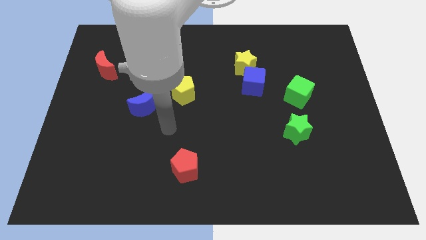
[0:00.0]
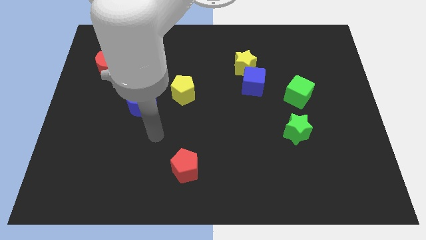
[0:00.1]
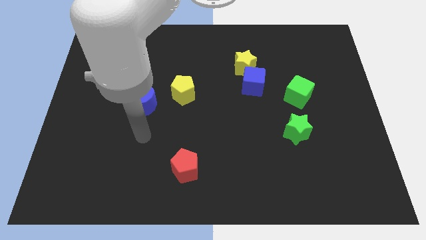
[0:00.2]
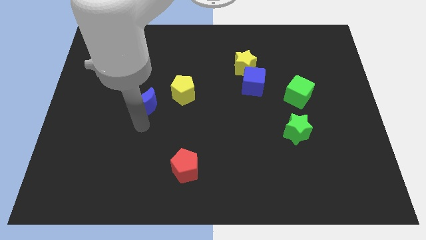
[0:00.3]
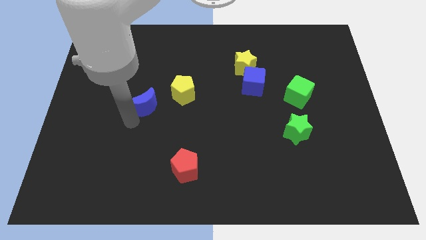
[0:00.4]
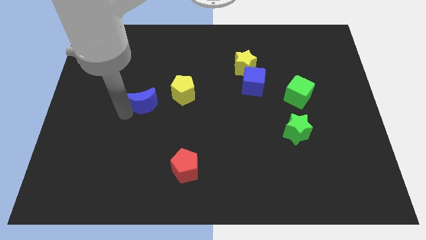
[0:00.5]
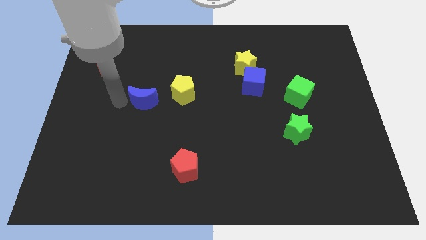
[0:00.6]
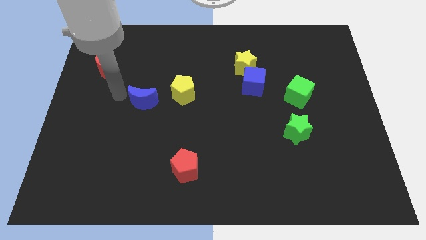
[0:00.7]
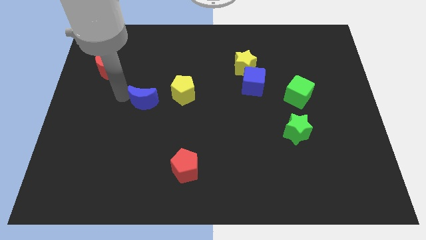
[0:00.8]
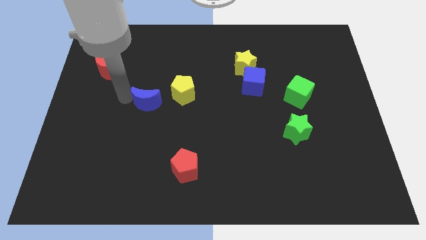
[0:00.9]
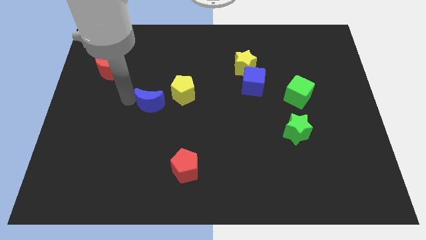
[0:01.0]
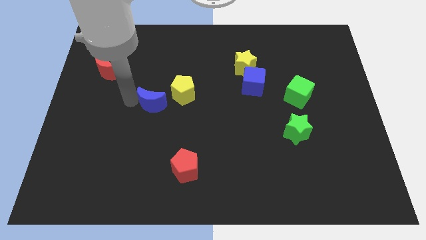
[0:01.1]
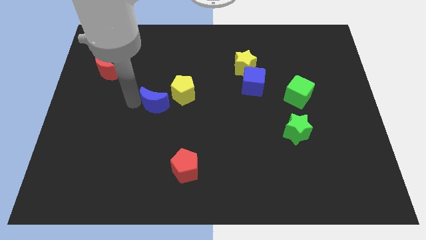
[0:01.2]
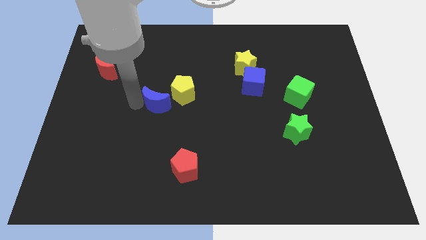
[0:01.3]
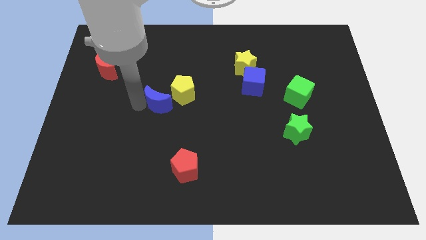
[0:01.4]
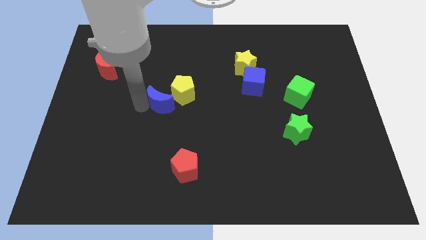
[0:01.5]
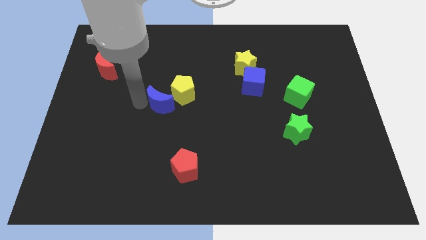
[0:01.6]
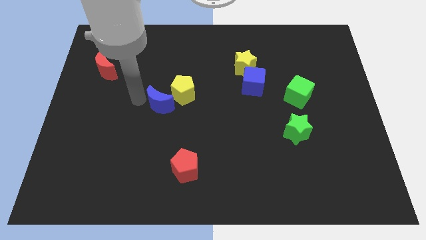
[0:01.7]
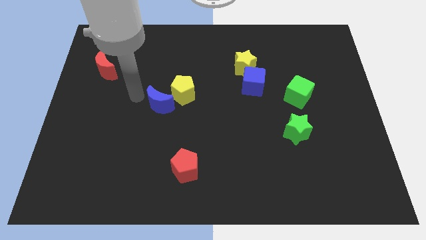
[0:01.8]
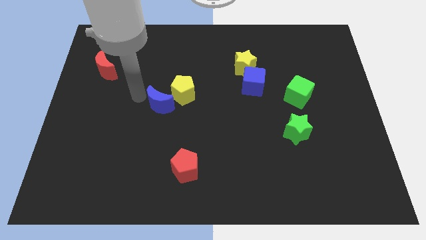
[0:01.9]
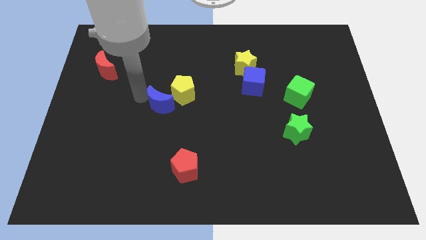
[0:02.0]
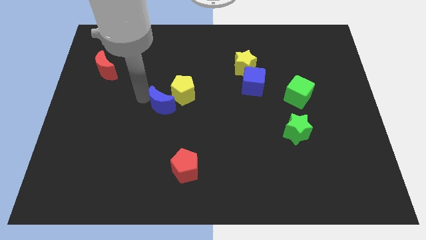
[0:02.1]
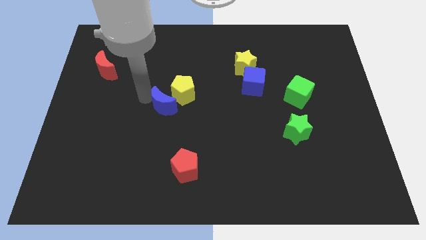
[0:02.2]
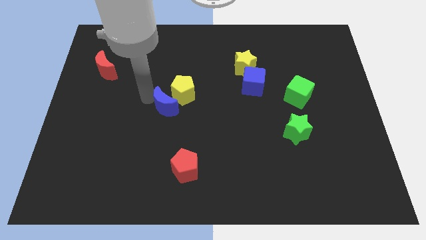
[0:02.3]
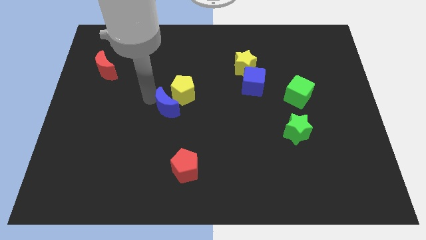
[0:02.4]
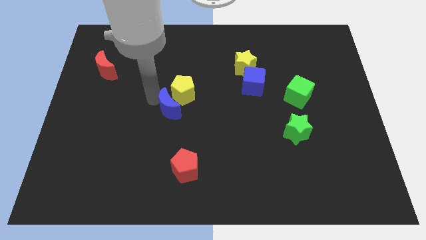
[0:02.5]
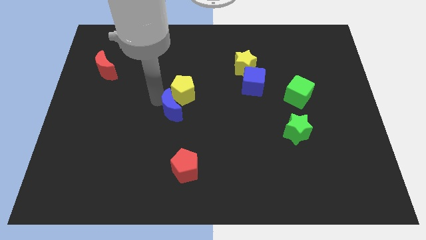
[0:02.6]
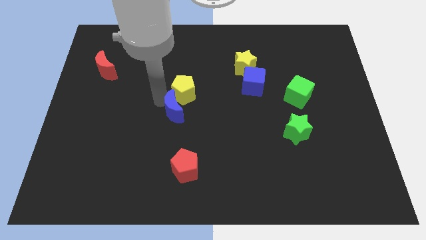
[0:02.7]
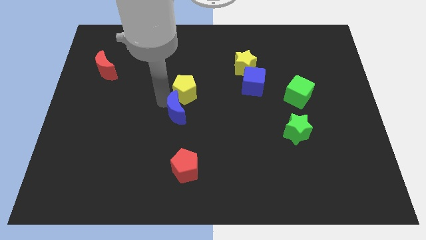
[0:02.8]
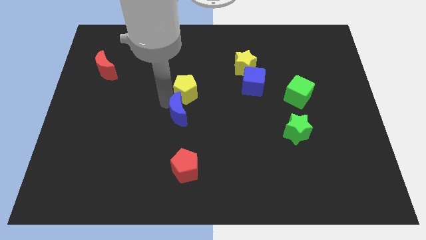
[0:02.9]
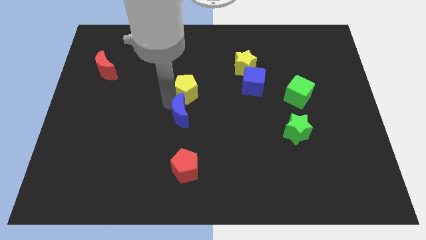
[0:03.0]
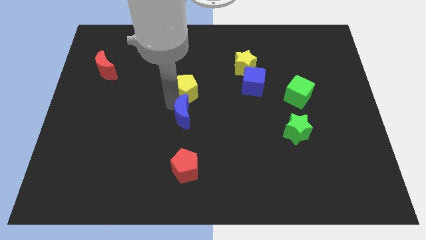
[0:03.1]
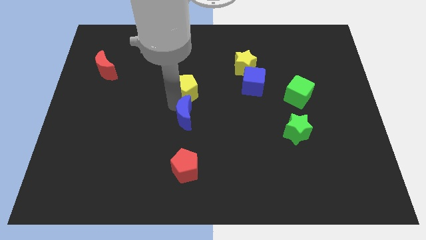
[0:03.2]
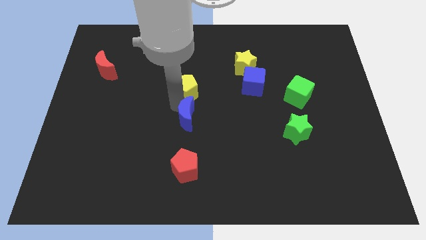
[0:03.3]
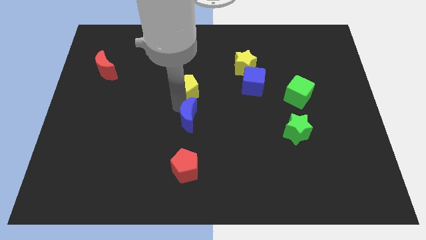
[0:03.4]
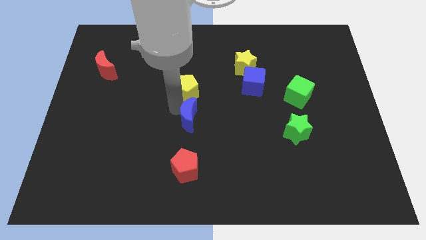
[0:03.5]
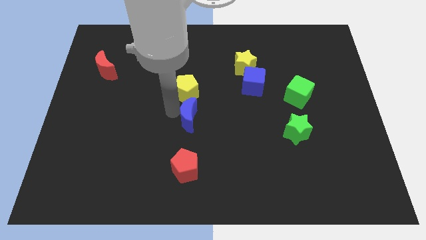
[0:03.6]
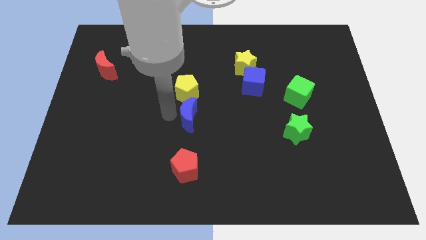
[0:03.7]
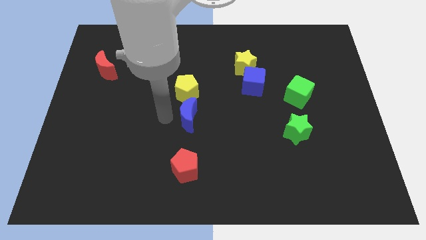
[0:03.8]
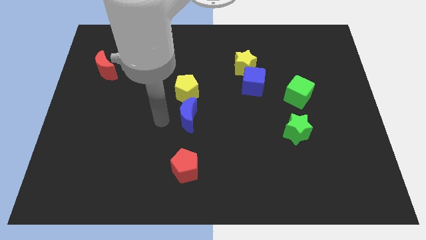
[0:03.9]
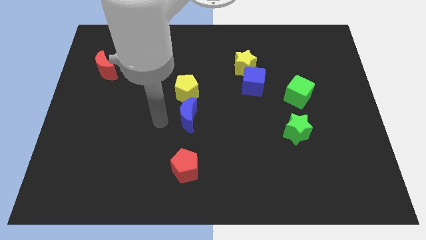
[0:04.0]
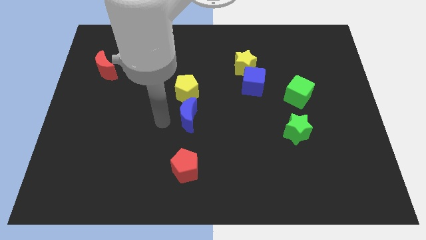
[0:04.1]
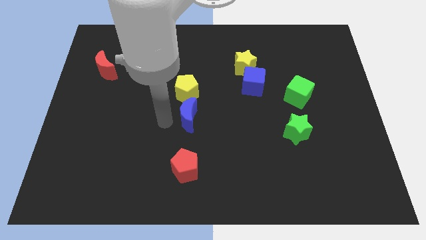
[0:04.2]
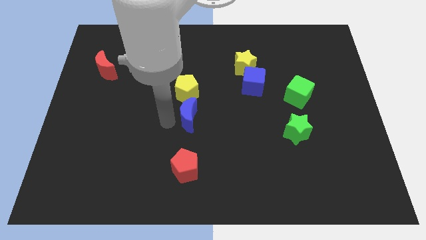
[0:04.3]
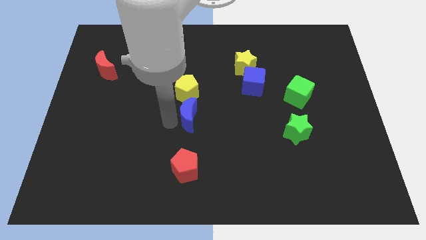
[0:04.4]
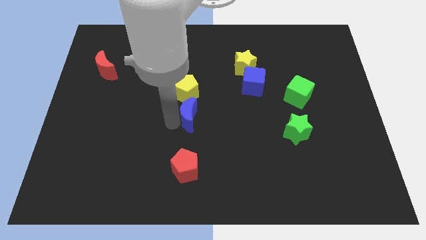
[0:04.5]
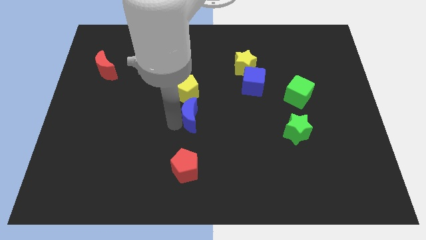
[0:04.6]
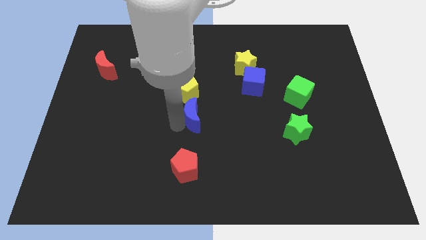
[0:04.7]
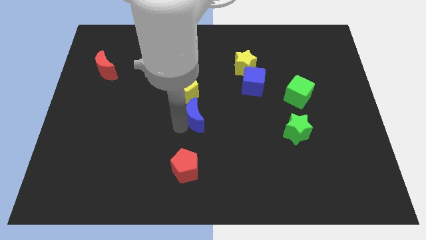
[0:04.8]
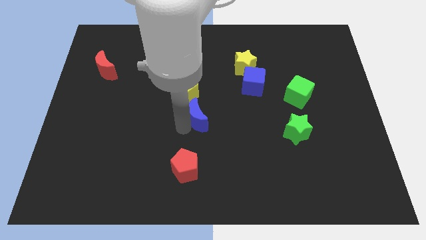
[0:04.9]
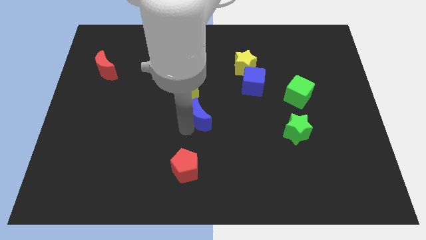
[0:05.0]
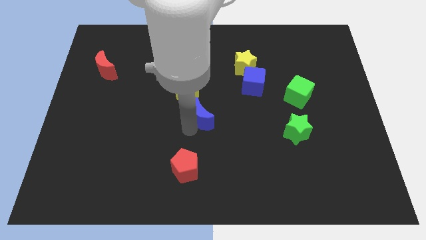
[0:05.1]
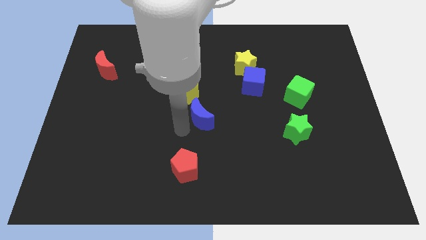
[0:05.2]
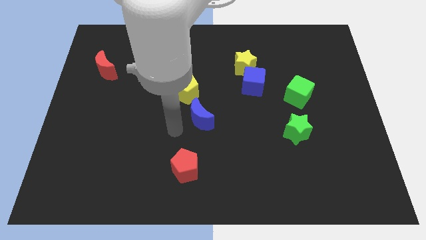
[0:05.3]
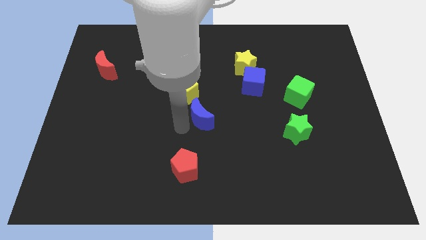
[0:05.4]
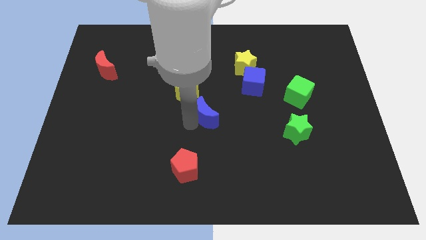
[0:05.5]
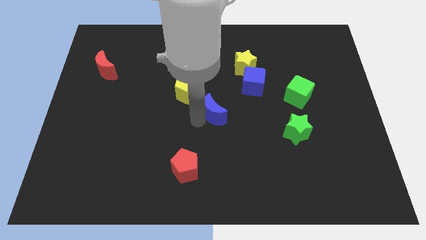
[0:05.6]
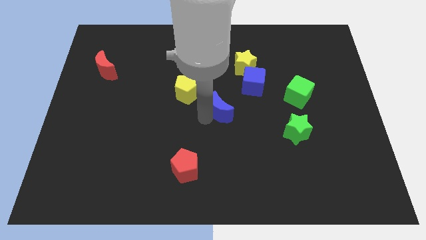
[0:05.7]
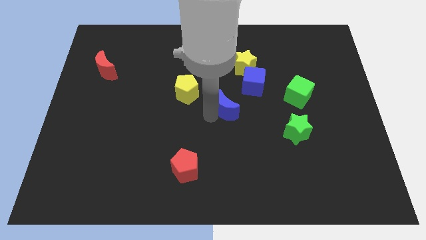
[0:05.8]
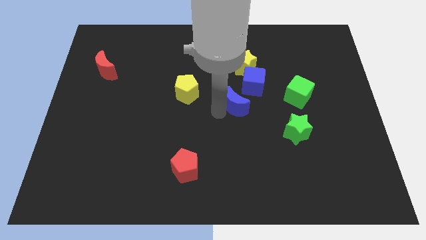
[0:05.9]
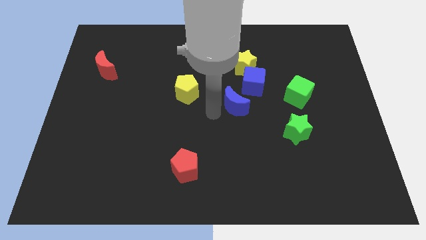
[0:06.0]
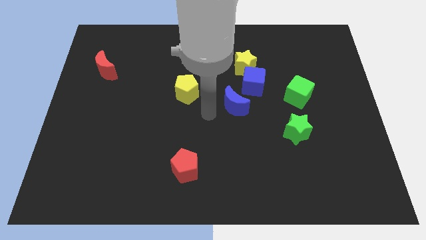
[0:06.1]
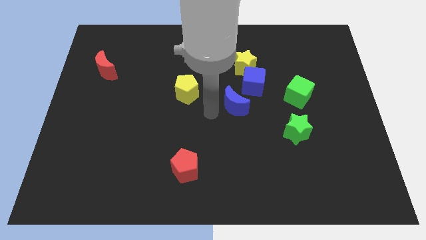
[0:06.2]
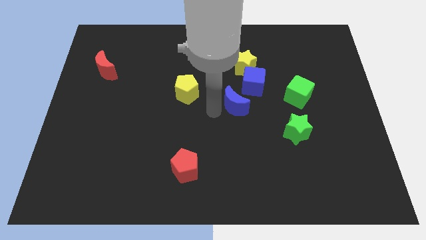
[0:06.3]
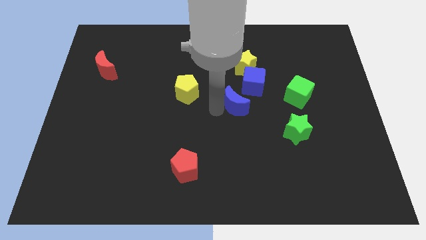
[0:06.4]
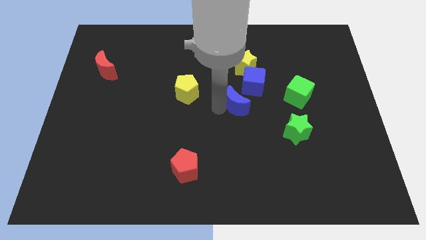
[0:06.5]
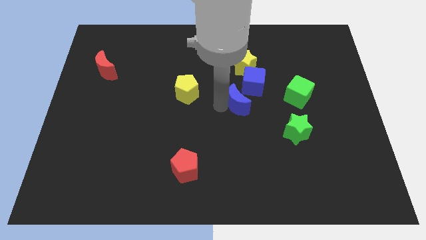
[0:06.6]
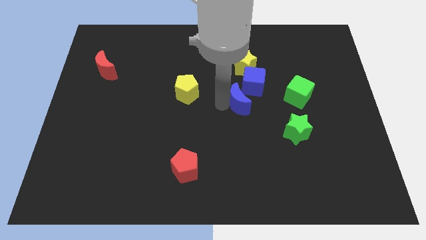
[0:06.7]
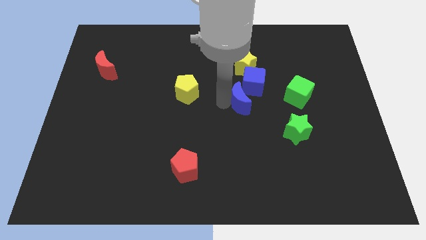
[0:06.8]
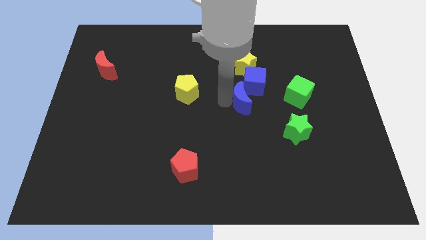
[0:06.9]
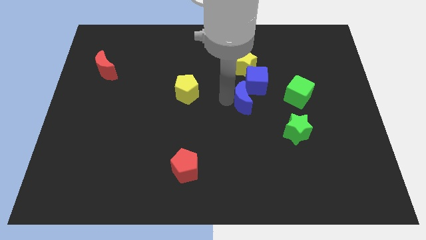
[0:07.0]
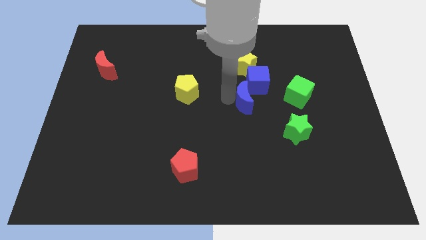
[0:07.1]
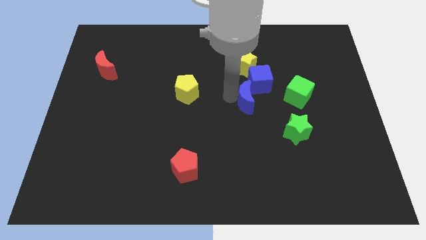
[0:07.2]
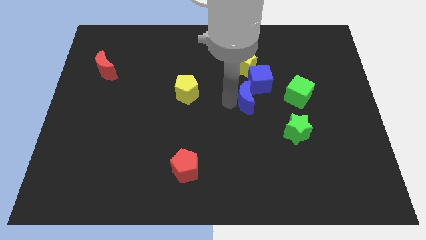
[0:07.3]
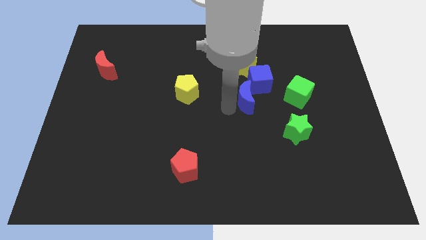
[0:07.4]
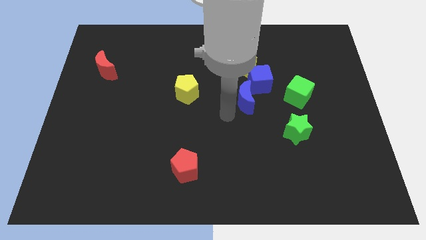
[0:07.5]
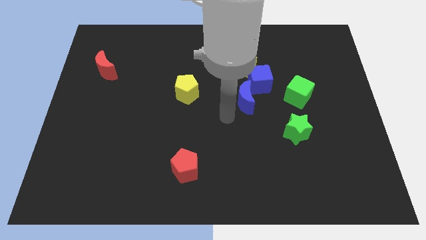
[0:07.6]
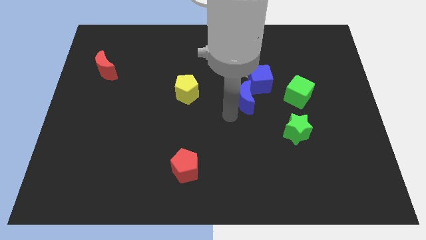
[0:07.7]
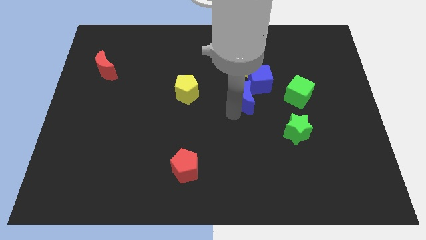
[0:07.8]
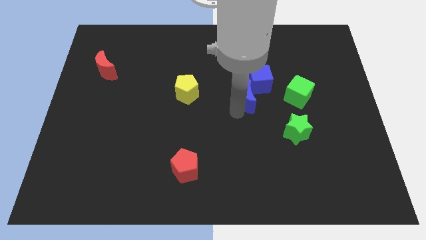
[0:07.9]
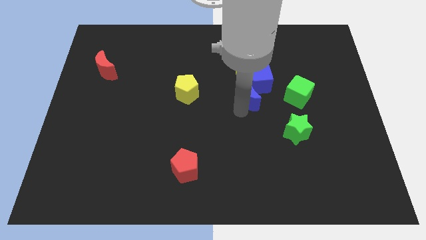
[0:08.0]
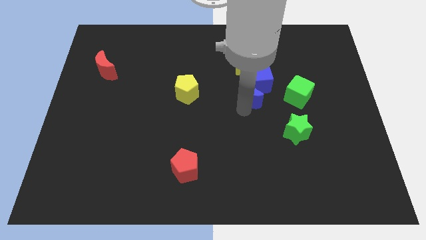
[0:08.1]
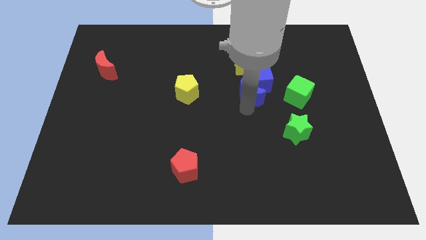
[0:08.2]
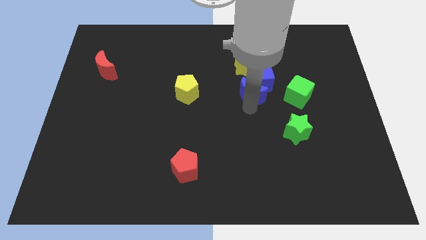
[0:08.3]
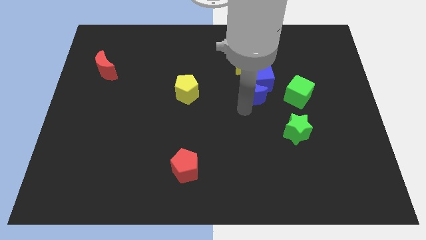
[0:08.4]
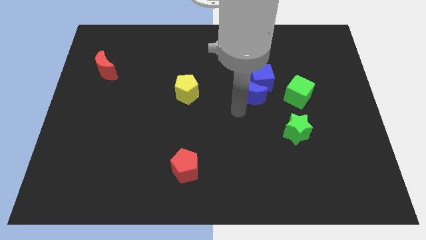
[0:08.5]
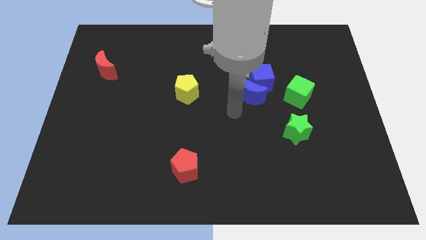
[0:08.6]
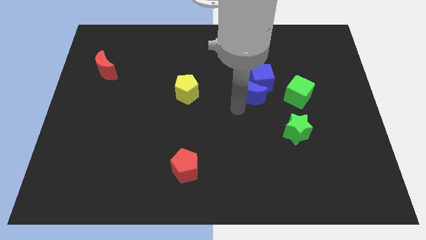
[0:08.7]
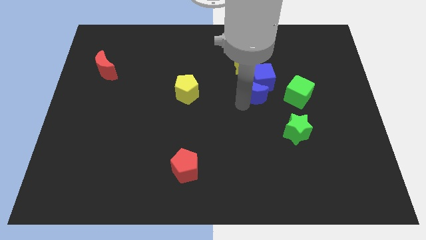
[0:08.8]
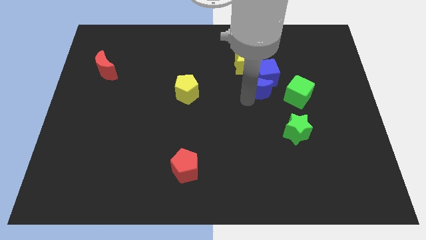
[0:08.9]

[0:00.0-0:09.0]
push the blue moon to the bottom right of the yellow star
